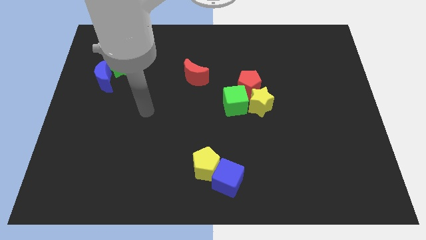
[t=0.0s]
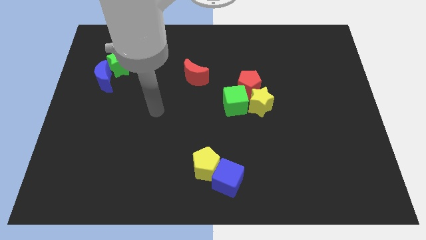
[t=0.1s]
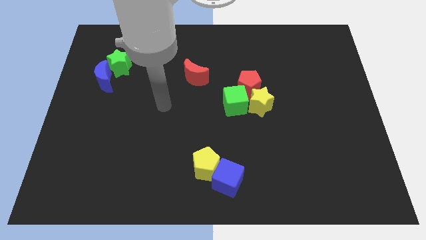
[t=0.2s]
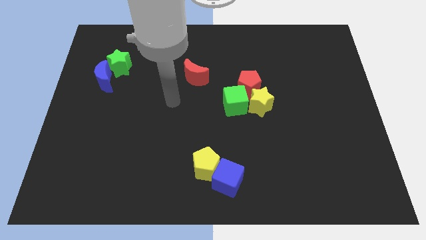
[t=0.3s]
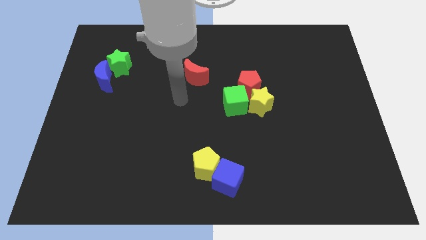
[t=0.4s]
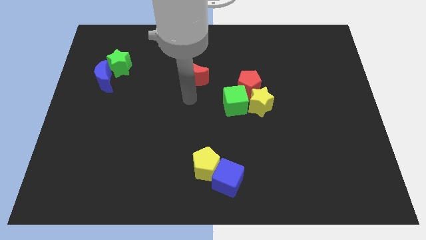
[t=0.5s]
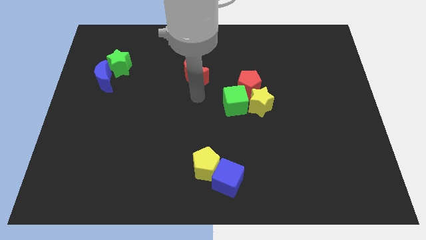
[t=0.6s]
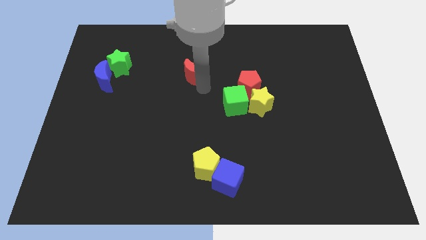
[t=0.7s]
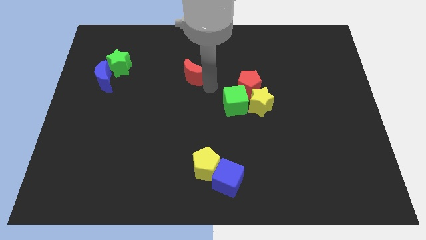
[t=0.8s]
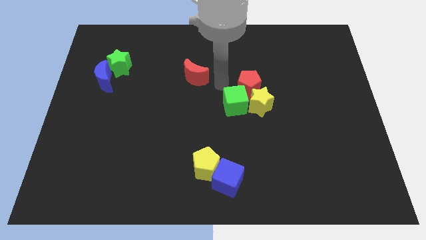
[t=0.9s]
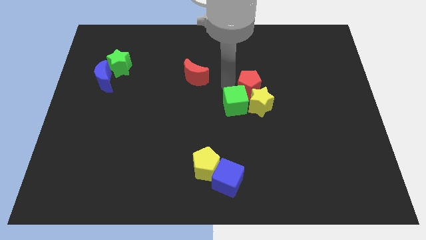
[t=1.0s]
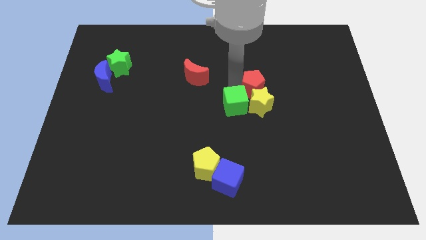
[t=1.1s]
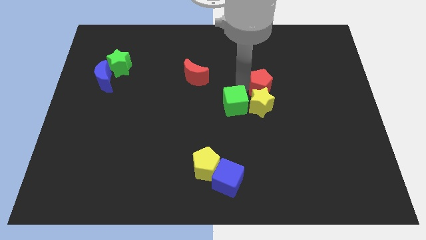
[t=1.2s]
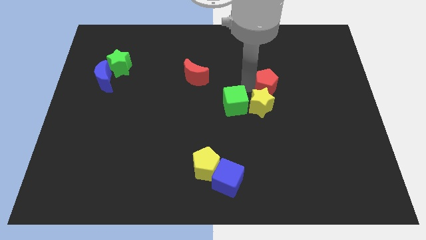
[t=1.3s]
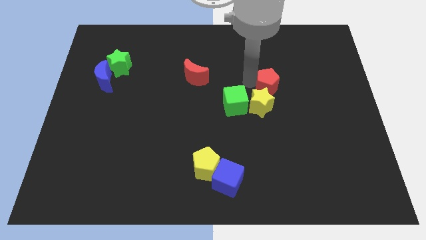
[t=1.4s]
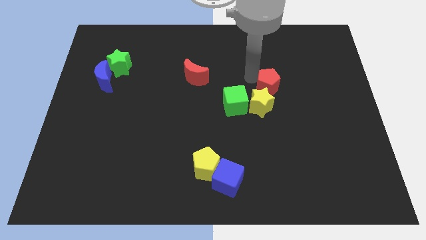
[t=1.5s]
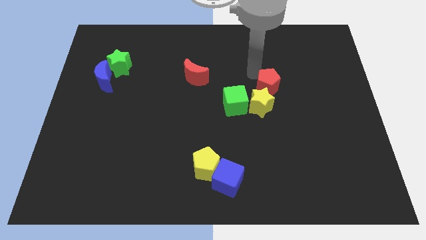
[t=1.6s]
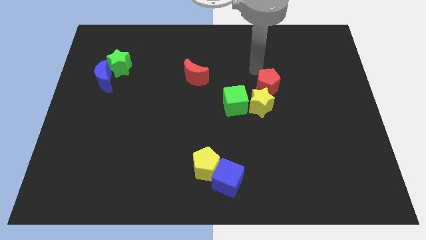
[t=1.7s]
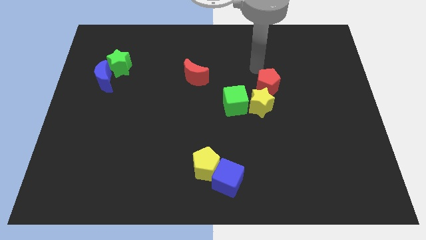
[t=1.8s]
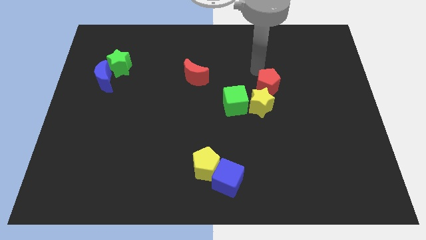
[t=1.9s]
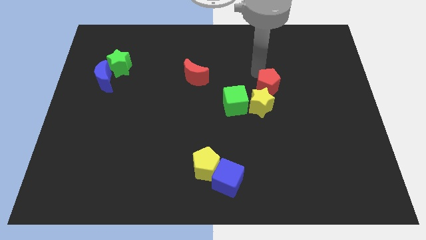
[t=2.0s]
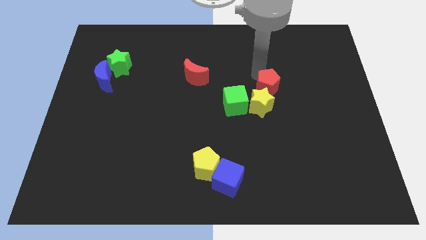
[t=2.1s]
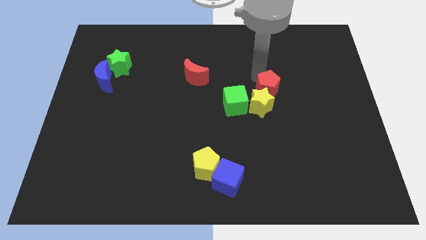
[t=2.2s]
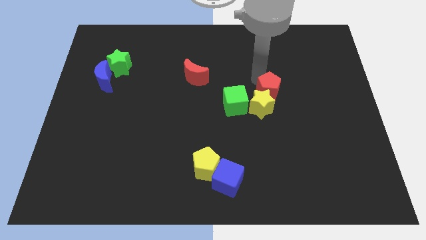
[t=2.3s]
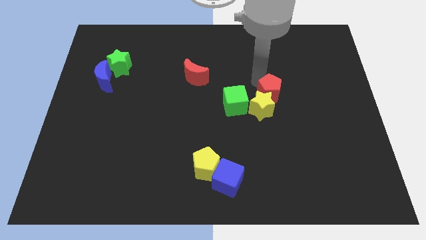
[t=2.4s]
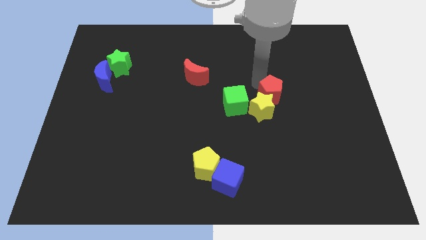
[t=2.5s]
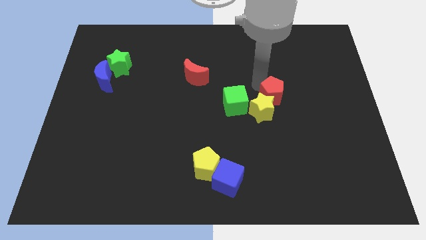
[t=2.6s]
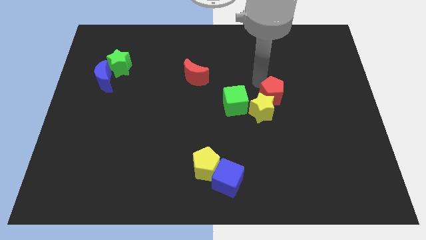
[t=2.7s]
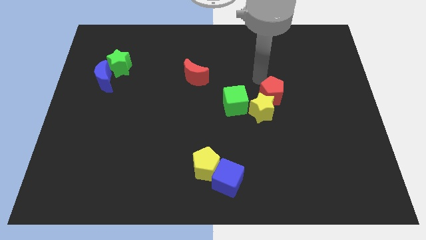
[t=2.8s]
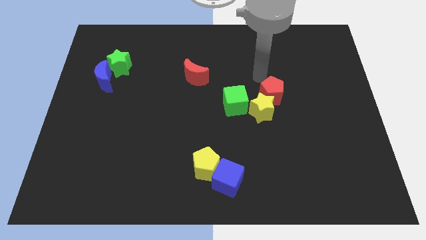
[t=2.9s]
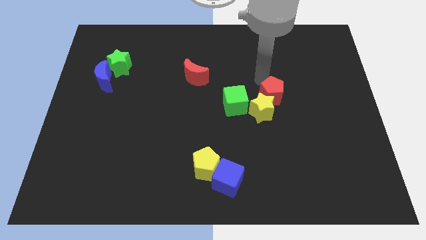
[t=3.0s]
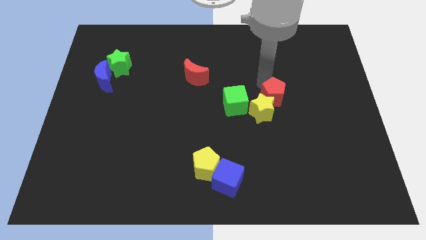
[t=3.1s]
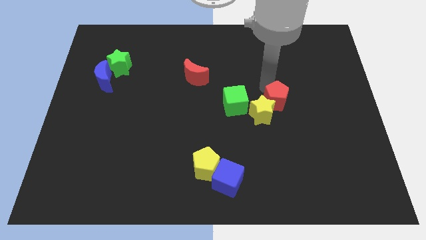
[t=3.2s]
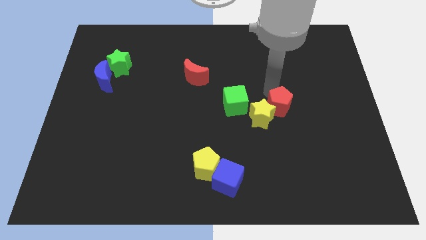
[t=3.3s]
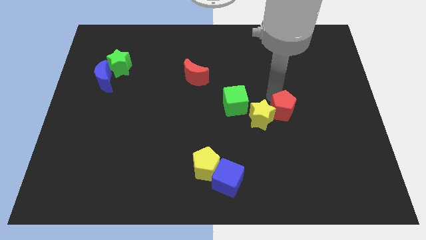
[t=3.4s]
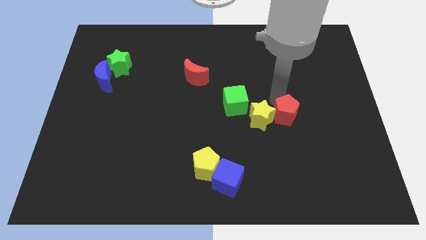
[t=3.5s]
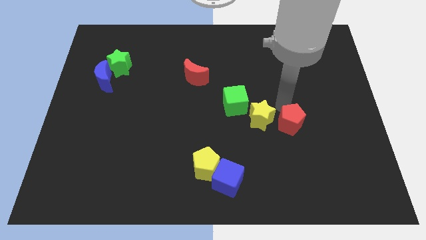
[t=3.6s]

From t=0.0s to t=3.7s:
slightly move the red pentagon down

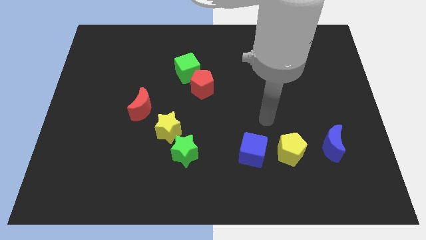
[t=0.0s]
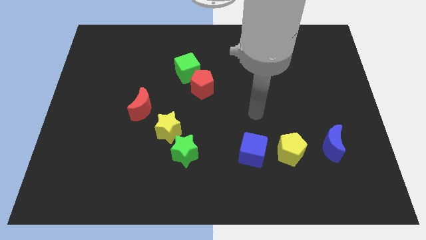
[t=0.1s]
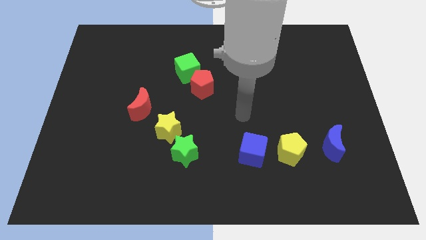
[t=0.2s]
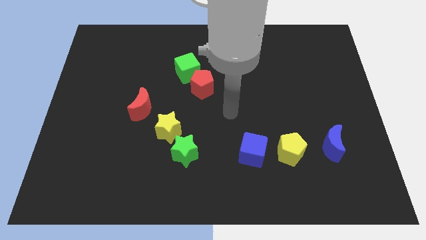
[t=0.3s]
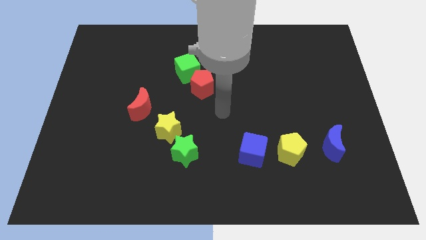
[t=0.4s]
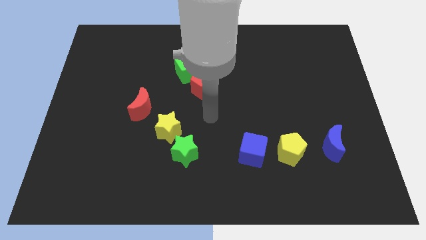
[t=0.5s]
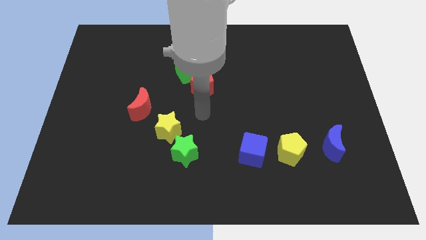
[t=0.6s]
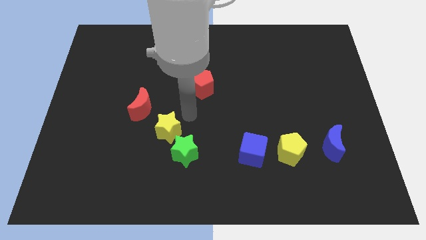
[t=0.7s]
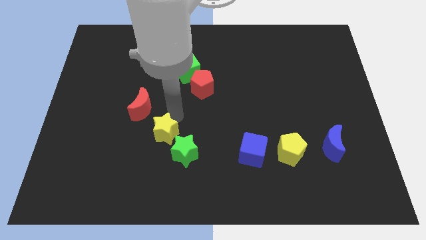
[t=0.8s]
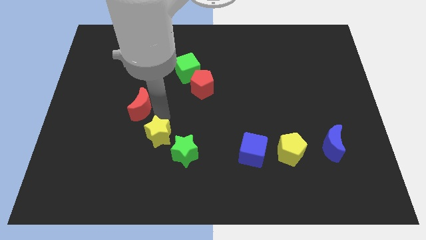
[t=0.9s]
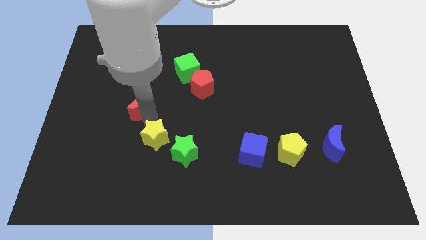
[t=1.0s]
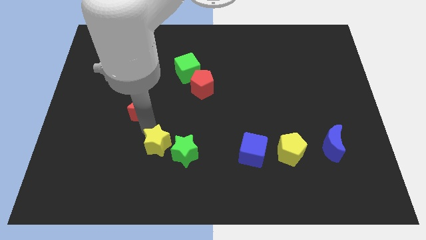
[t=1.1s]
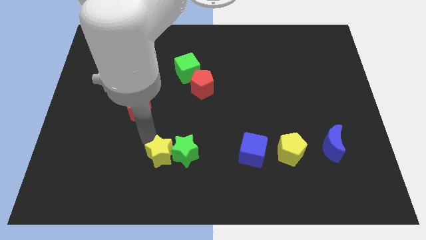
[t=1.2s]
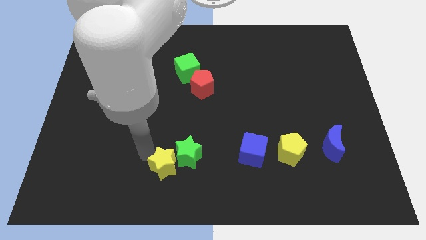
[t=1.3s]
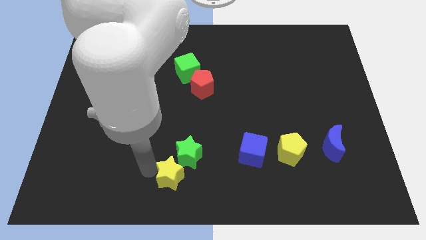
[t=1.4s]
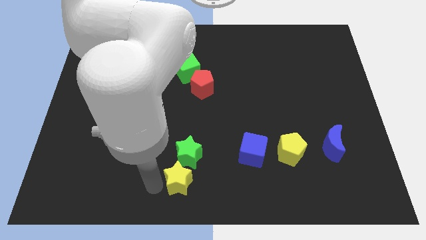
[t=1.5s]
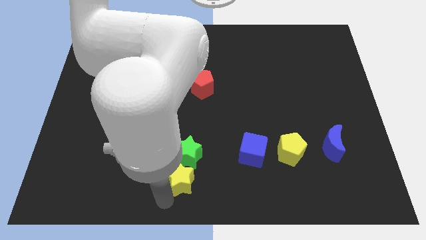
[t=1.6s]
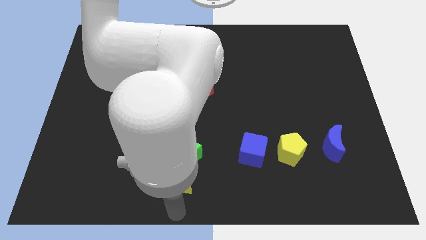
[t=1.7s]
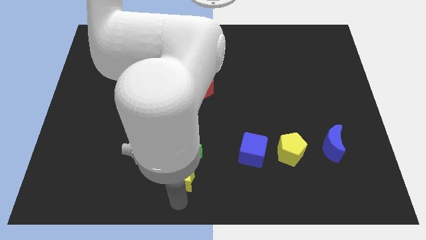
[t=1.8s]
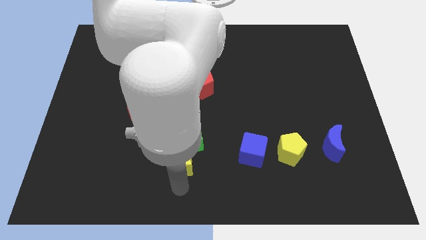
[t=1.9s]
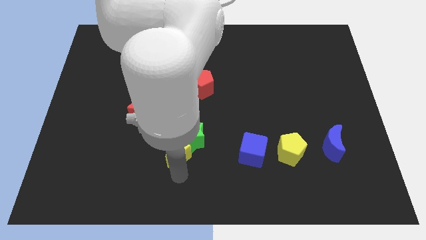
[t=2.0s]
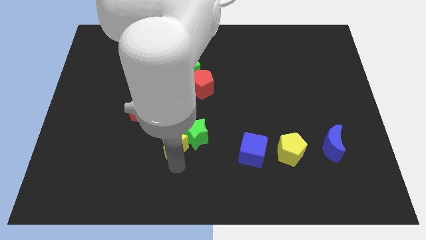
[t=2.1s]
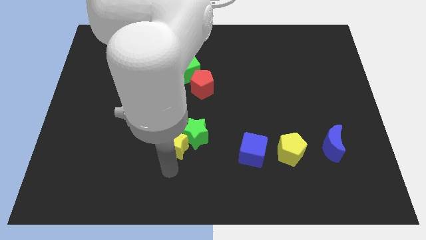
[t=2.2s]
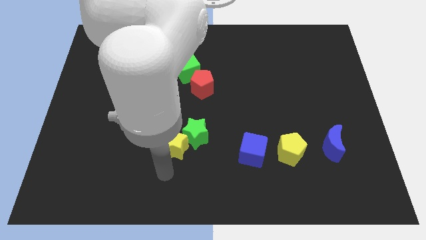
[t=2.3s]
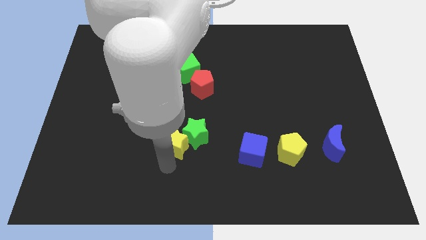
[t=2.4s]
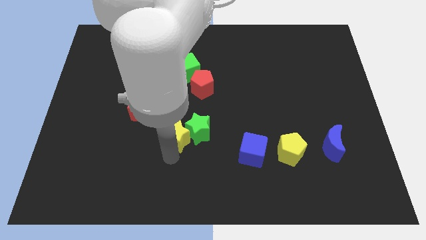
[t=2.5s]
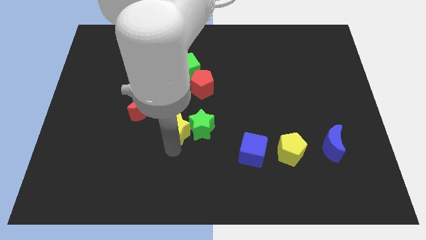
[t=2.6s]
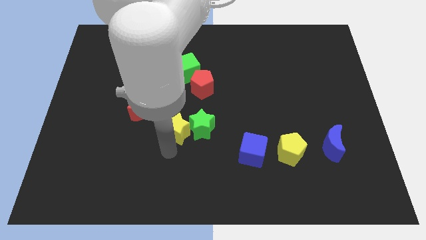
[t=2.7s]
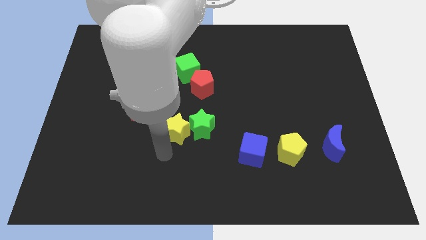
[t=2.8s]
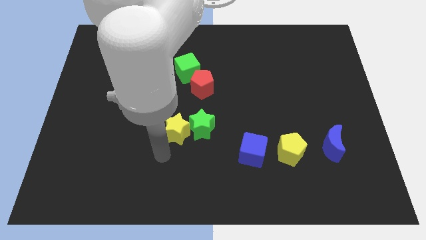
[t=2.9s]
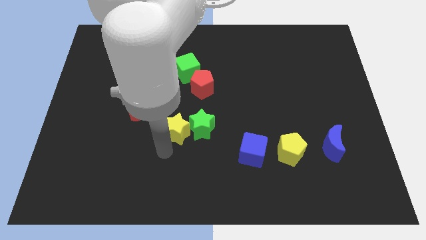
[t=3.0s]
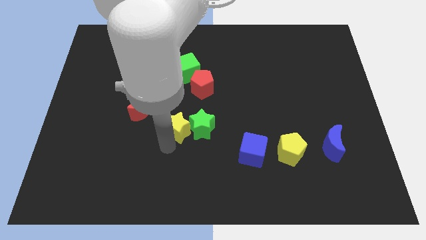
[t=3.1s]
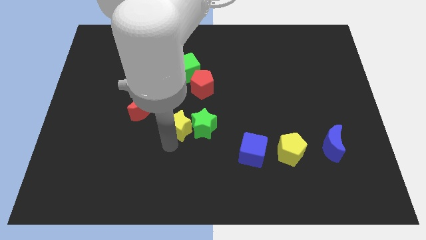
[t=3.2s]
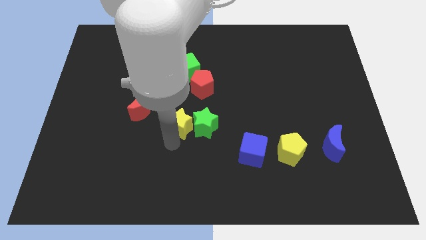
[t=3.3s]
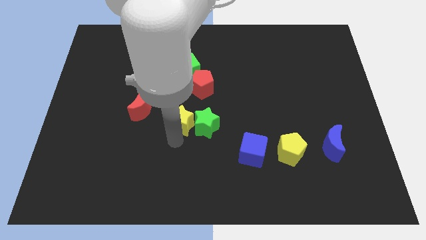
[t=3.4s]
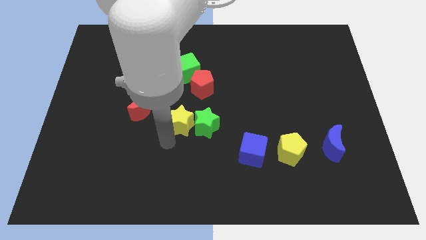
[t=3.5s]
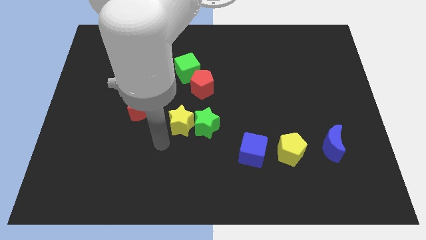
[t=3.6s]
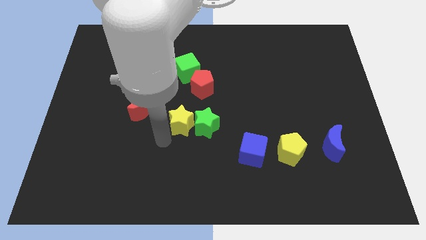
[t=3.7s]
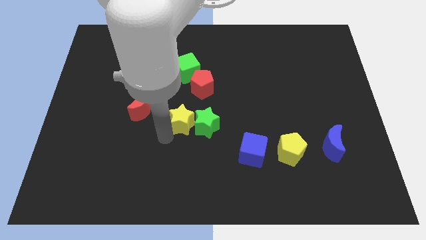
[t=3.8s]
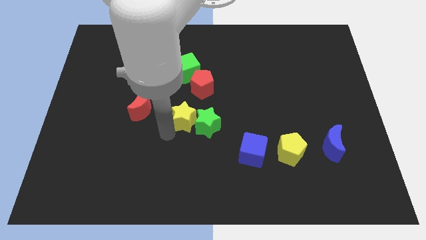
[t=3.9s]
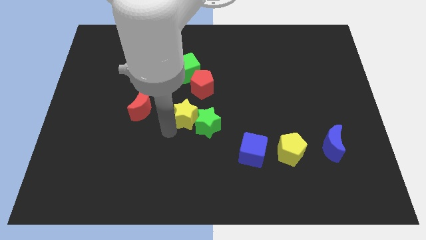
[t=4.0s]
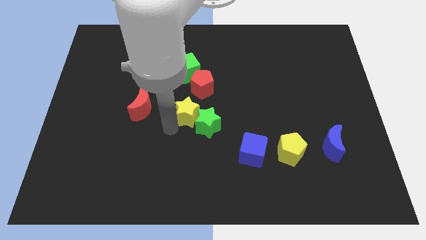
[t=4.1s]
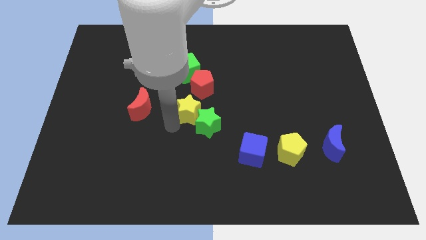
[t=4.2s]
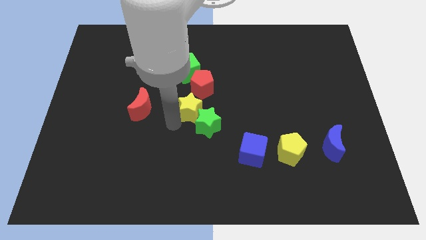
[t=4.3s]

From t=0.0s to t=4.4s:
move the yellow star slightly diagonally up and to the right
